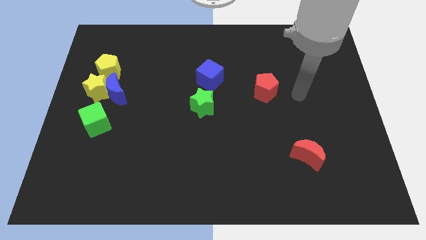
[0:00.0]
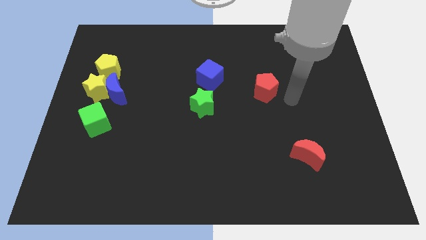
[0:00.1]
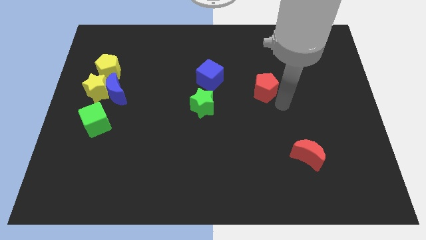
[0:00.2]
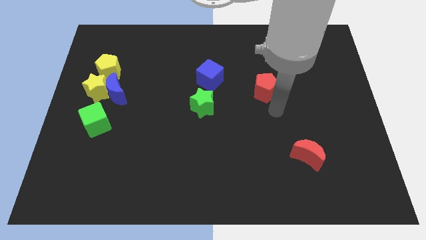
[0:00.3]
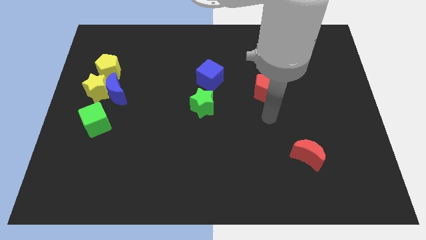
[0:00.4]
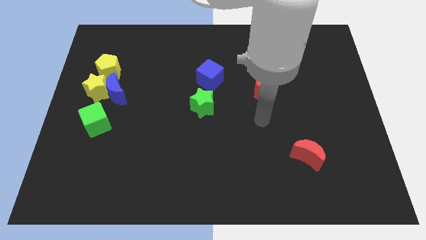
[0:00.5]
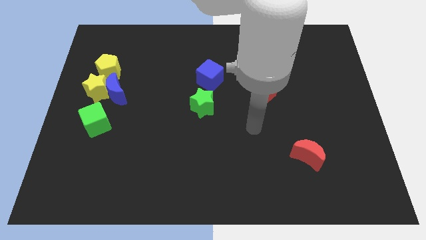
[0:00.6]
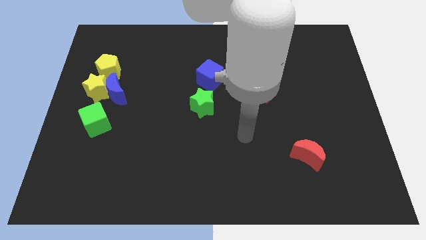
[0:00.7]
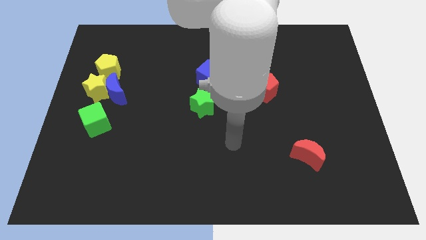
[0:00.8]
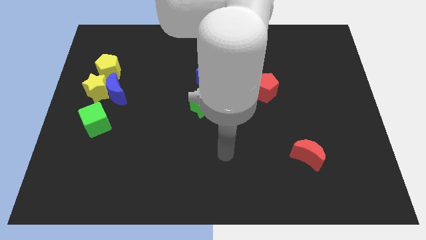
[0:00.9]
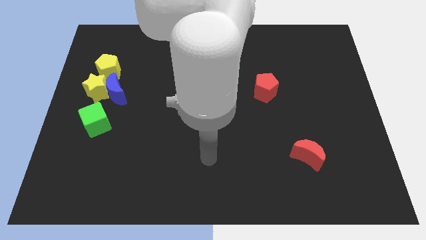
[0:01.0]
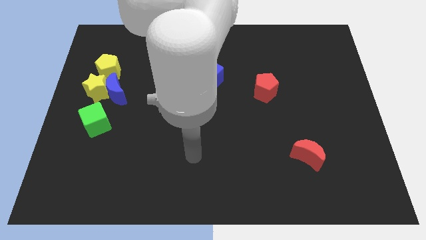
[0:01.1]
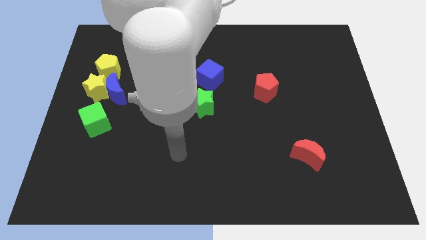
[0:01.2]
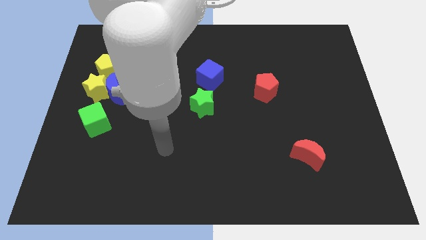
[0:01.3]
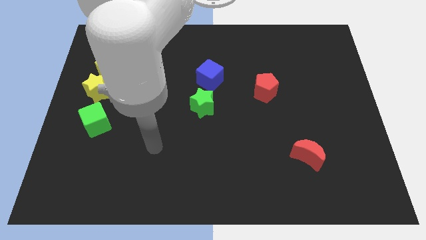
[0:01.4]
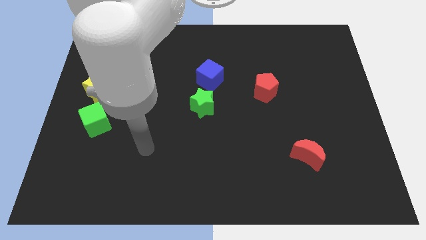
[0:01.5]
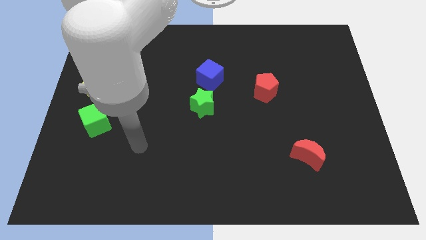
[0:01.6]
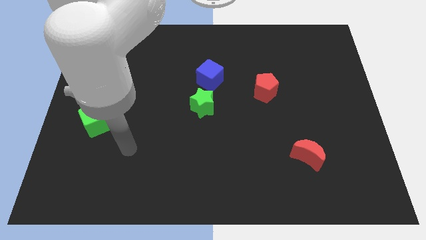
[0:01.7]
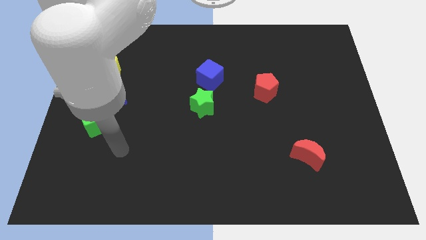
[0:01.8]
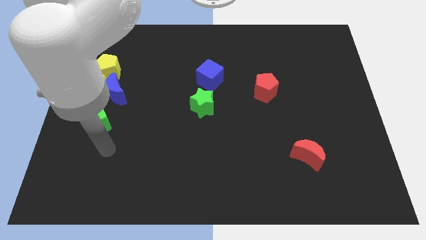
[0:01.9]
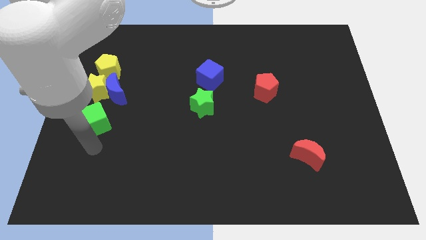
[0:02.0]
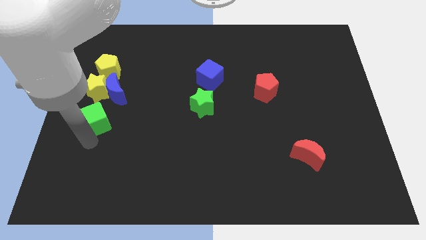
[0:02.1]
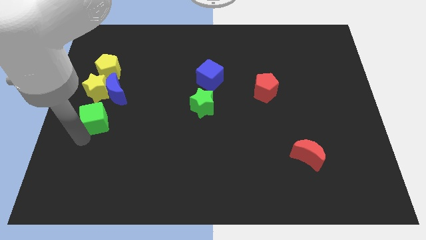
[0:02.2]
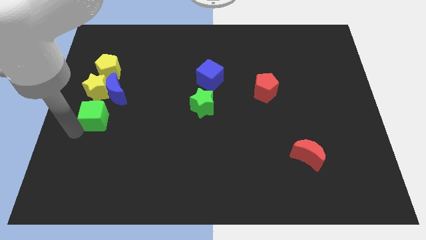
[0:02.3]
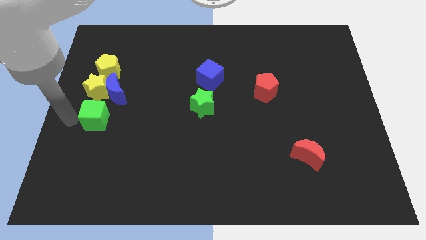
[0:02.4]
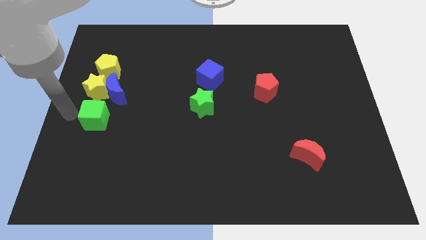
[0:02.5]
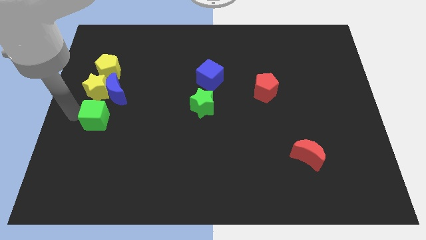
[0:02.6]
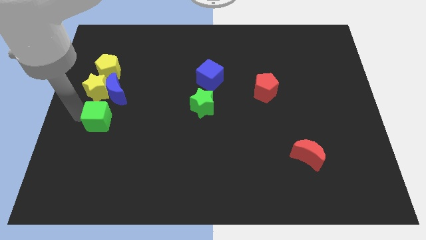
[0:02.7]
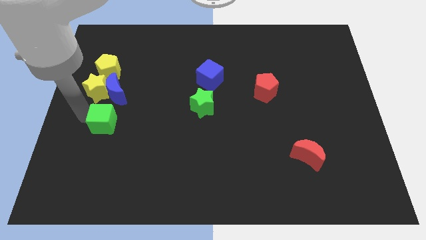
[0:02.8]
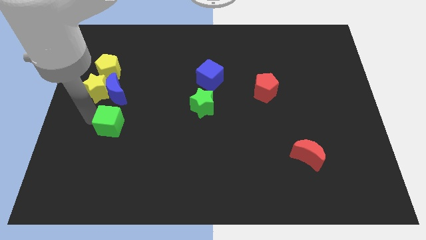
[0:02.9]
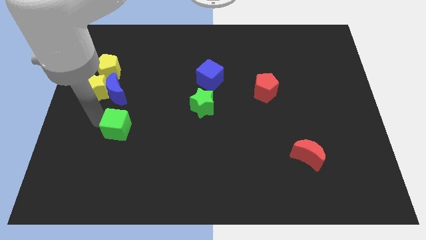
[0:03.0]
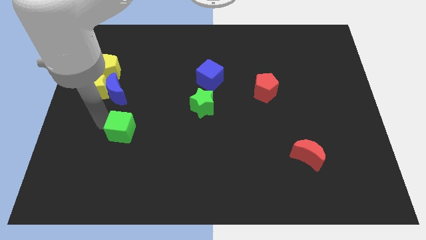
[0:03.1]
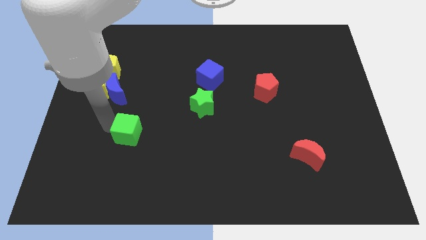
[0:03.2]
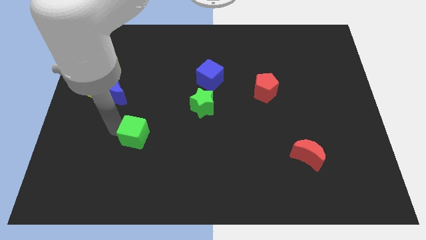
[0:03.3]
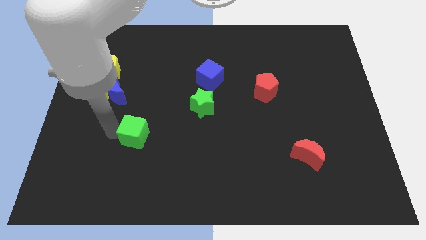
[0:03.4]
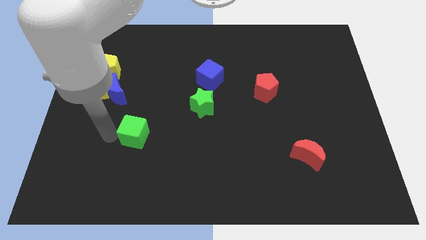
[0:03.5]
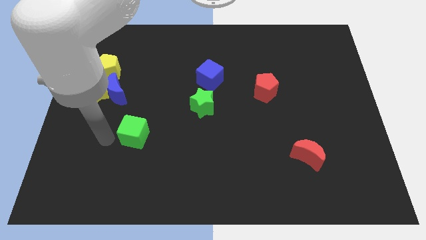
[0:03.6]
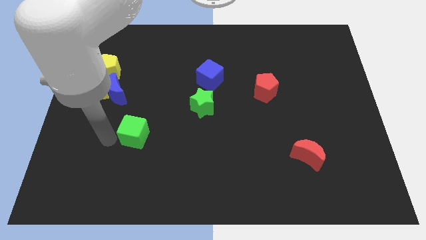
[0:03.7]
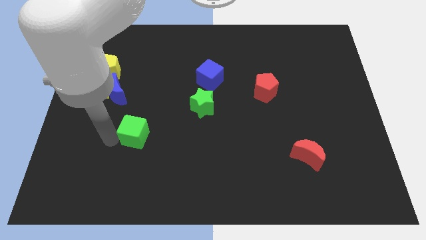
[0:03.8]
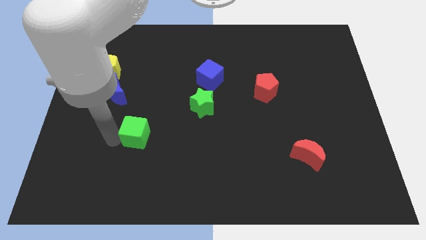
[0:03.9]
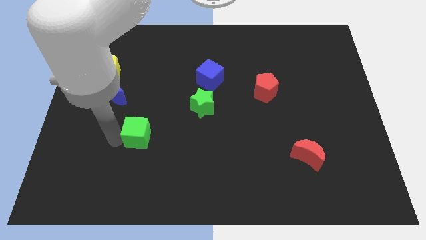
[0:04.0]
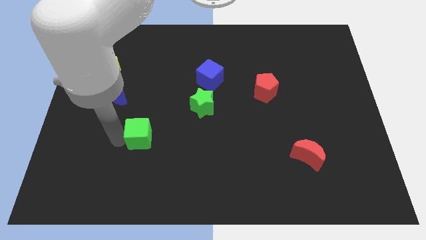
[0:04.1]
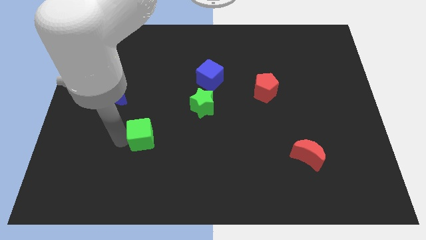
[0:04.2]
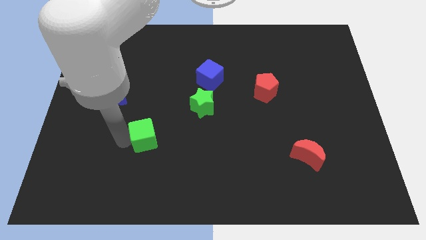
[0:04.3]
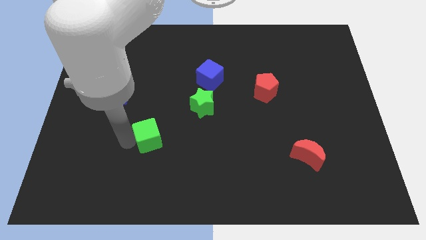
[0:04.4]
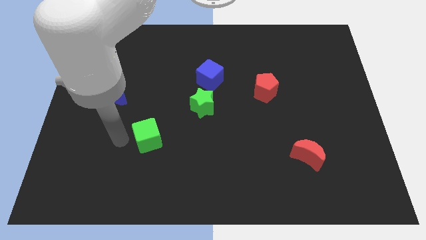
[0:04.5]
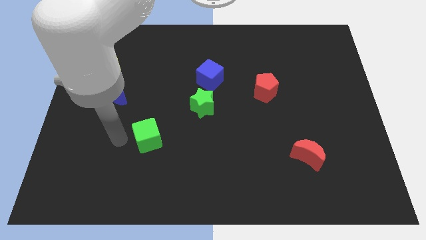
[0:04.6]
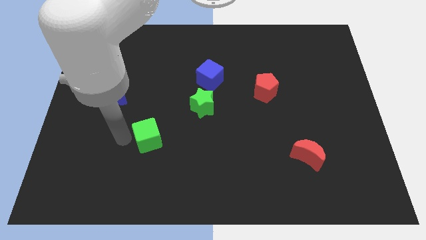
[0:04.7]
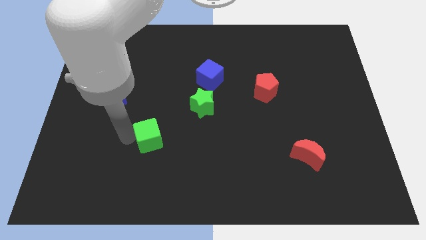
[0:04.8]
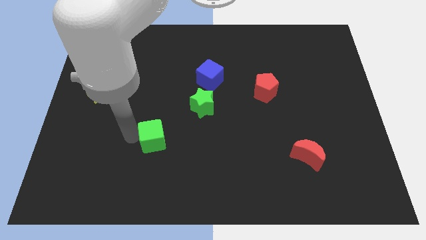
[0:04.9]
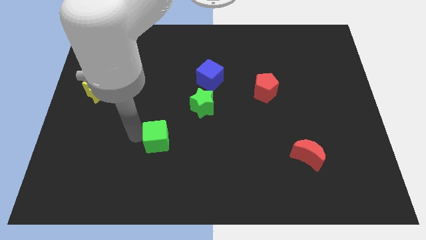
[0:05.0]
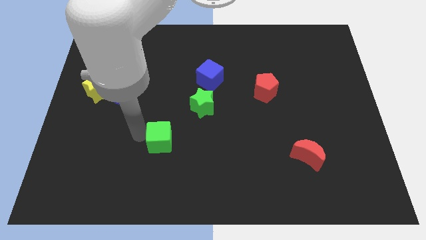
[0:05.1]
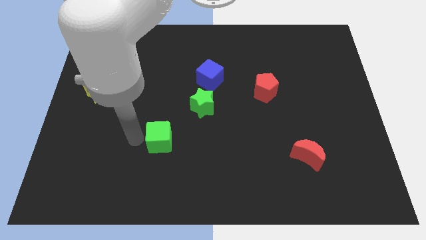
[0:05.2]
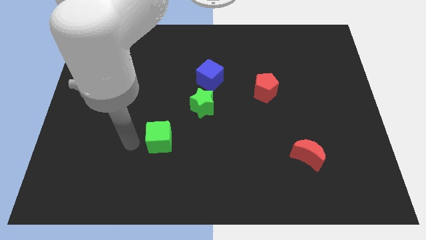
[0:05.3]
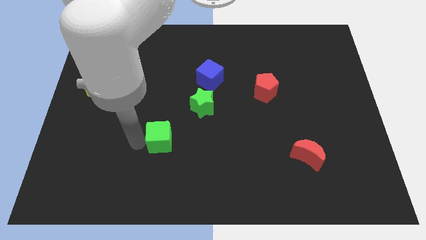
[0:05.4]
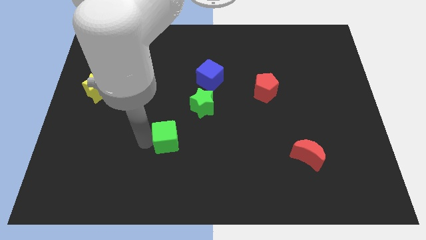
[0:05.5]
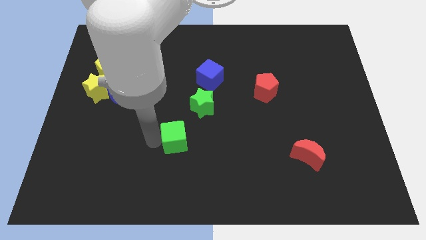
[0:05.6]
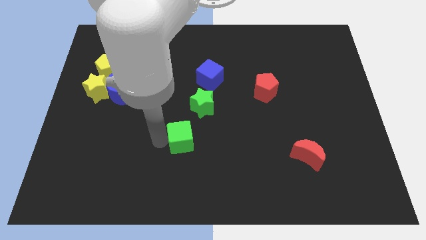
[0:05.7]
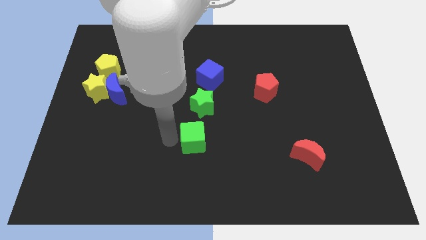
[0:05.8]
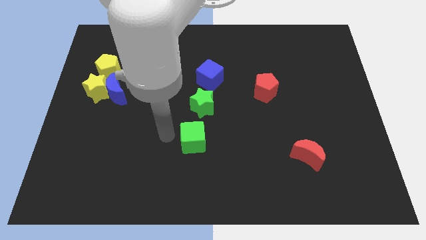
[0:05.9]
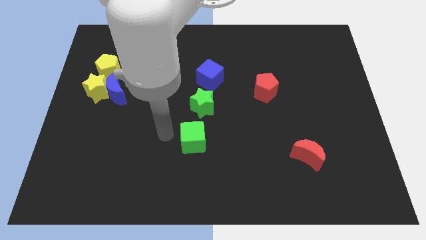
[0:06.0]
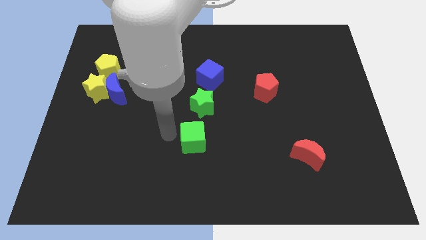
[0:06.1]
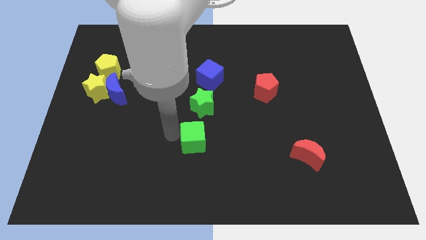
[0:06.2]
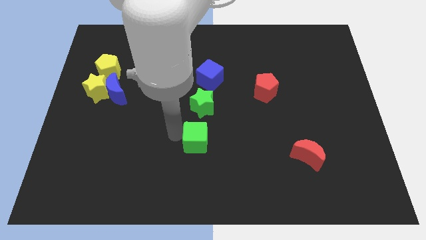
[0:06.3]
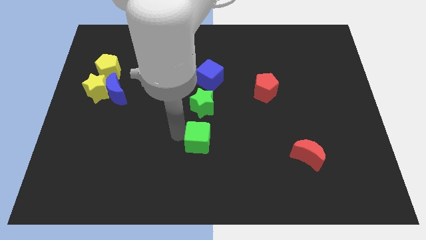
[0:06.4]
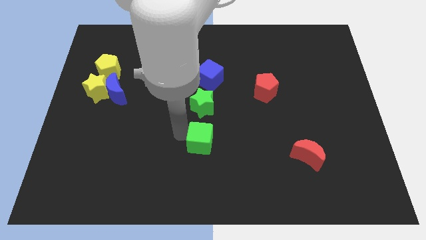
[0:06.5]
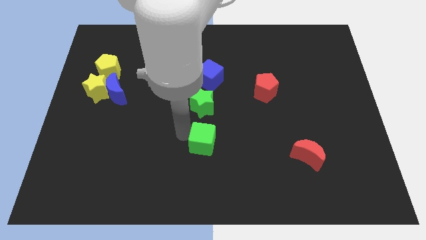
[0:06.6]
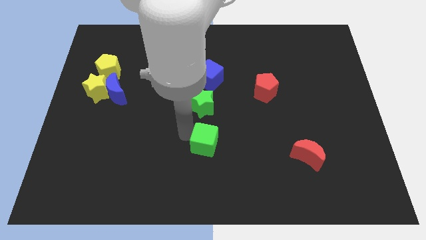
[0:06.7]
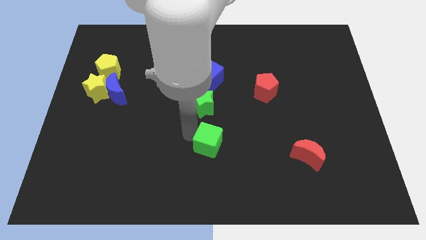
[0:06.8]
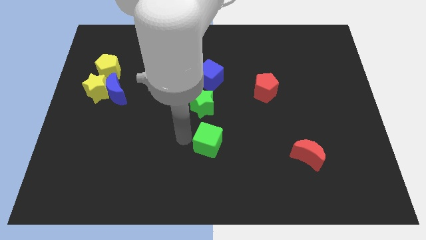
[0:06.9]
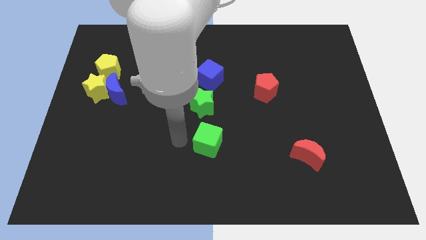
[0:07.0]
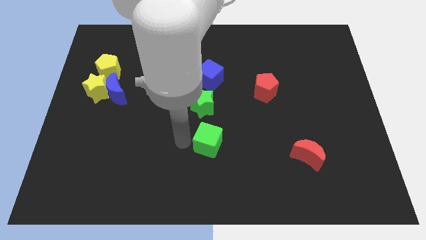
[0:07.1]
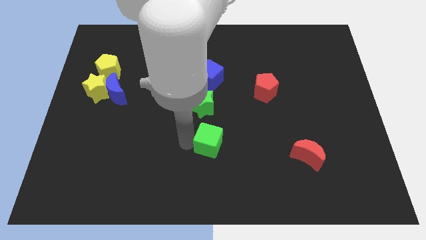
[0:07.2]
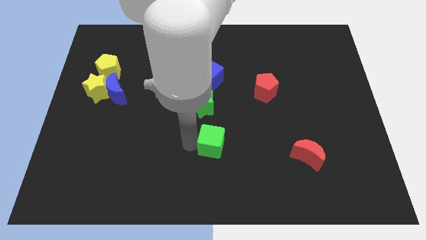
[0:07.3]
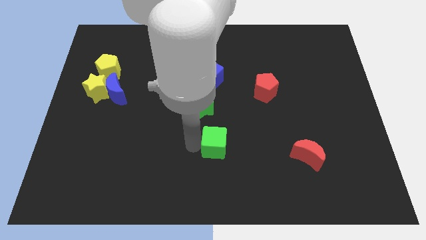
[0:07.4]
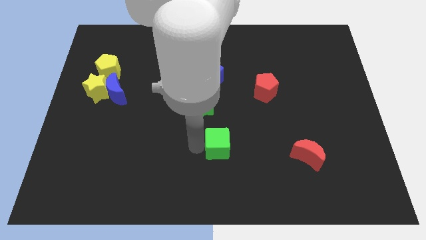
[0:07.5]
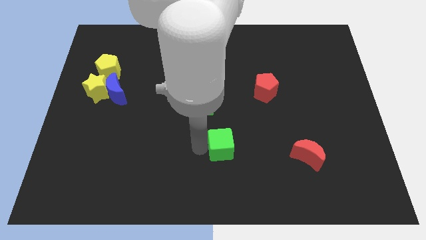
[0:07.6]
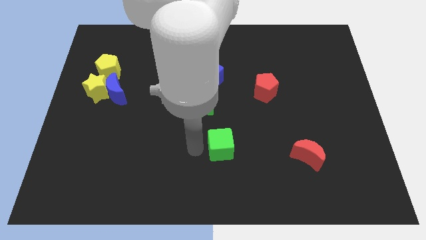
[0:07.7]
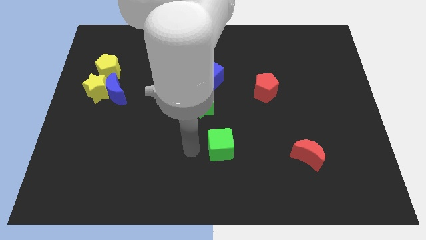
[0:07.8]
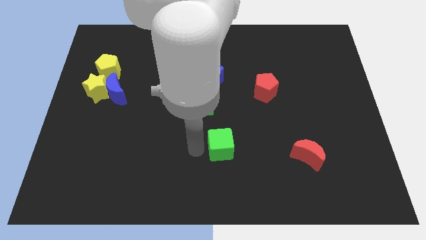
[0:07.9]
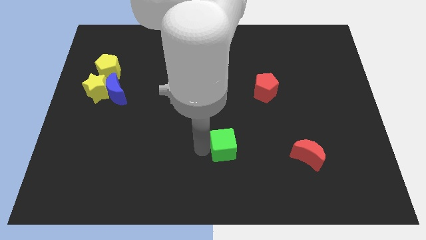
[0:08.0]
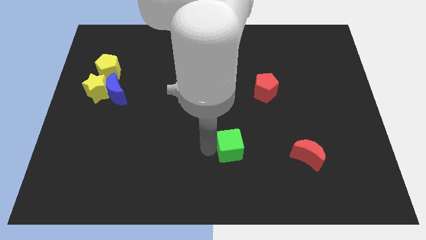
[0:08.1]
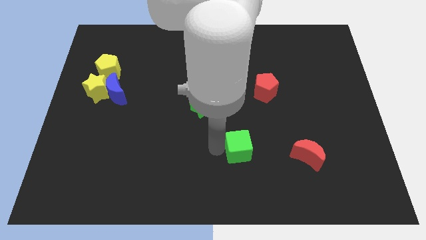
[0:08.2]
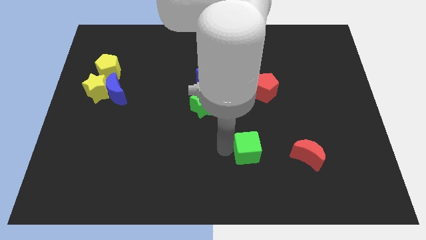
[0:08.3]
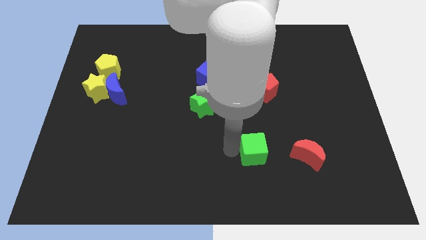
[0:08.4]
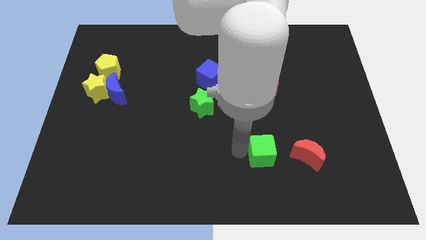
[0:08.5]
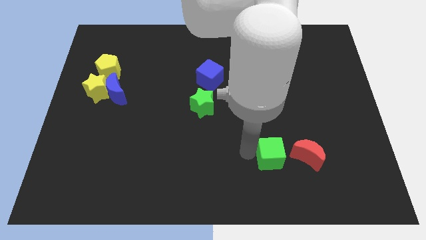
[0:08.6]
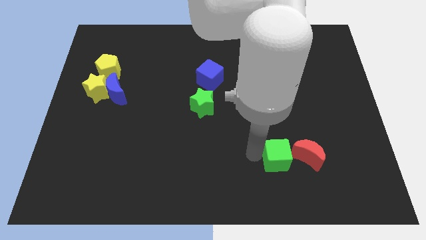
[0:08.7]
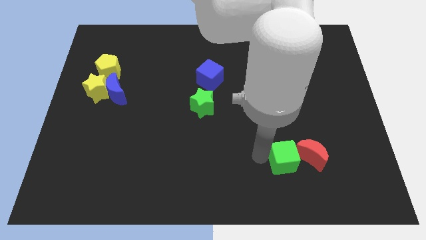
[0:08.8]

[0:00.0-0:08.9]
slide the green cube to the red moon
